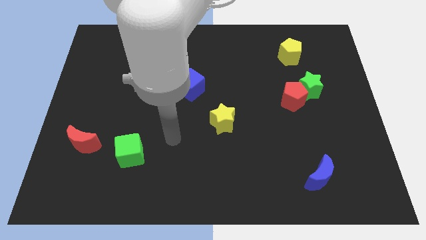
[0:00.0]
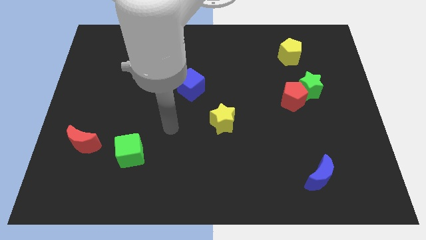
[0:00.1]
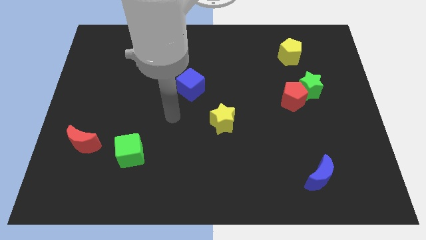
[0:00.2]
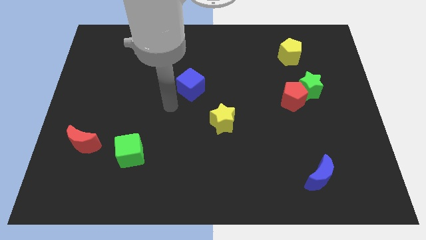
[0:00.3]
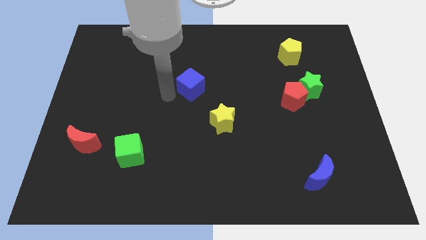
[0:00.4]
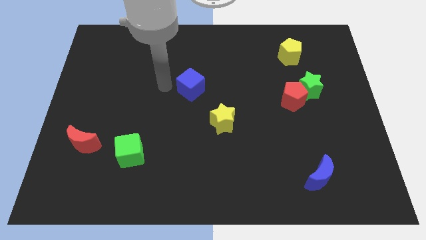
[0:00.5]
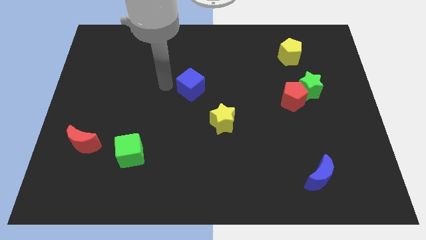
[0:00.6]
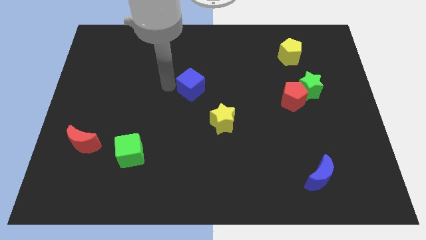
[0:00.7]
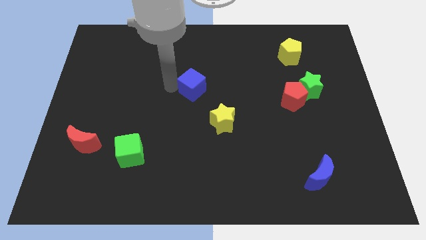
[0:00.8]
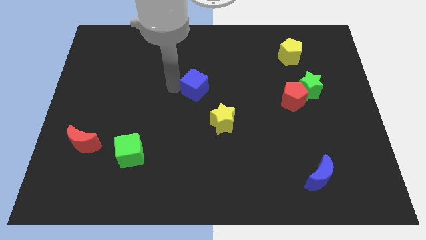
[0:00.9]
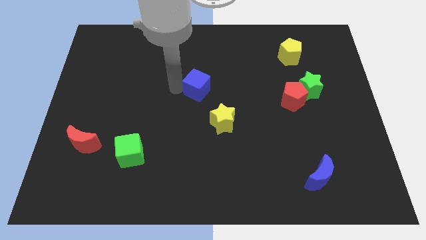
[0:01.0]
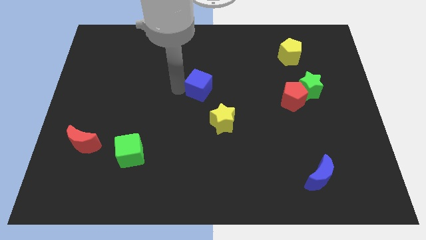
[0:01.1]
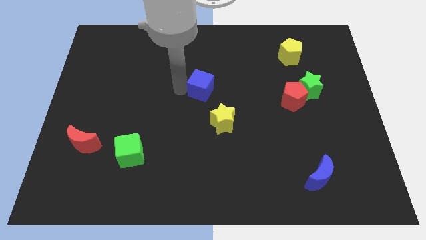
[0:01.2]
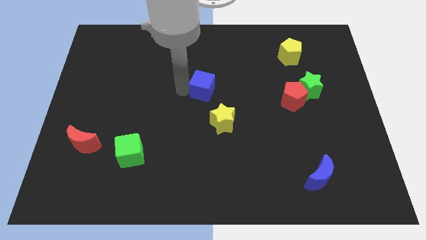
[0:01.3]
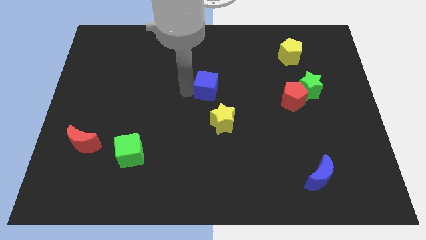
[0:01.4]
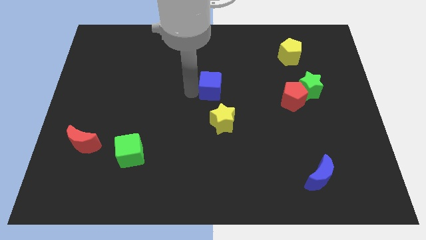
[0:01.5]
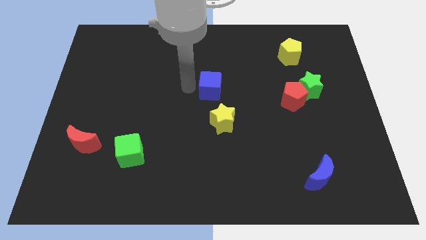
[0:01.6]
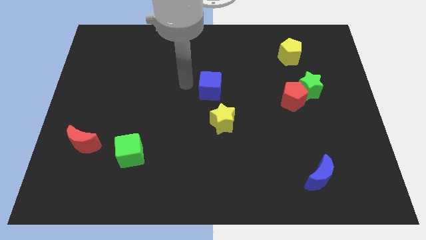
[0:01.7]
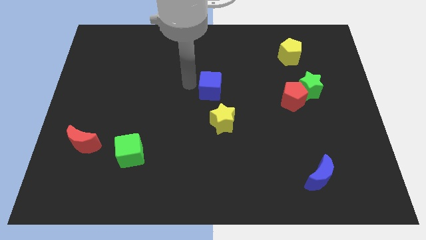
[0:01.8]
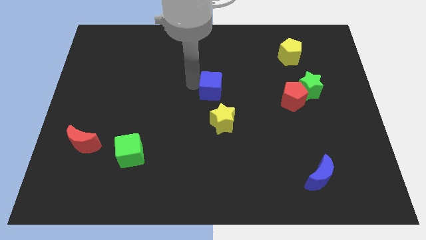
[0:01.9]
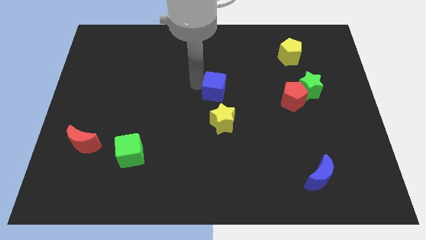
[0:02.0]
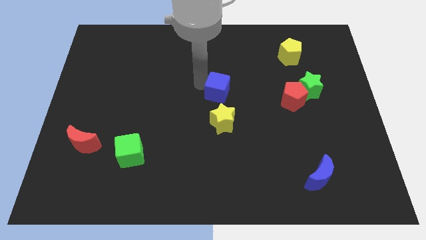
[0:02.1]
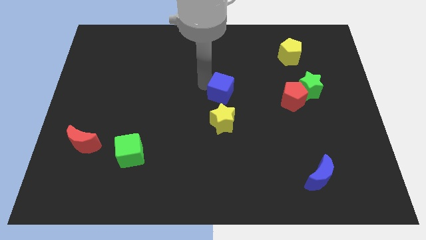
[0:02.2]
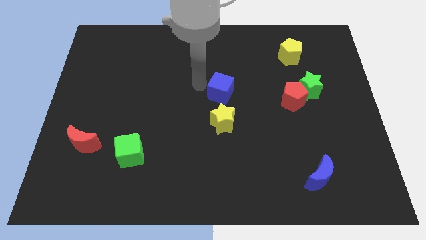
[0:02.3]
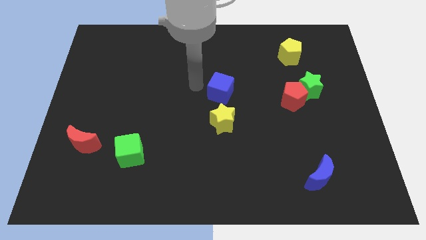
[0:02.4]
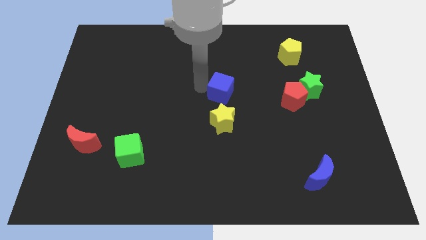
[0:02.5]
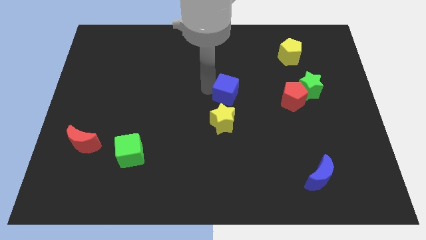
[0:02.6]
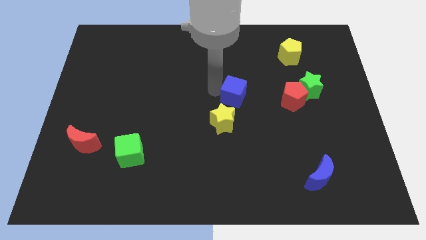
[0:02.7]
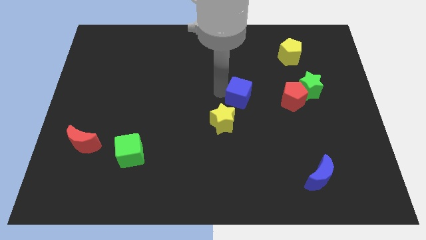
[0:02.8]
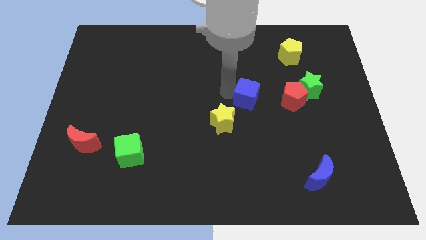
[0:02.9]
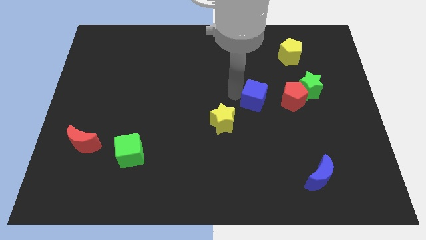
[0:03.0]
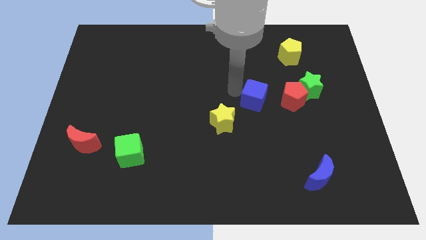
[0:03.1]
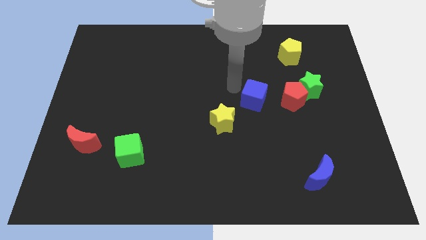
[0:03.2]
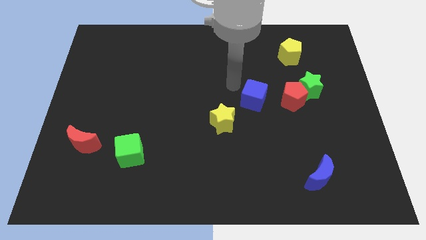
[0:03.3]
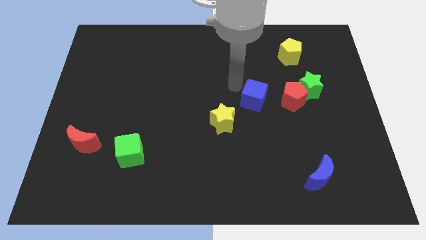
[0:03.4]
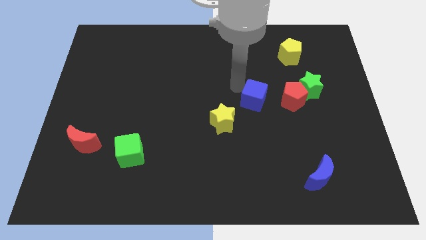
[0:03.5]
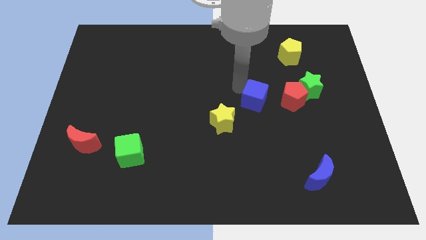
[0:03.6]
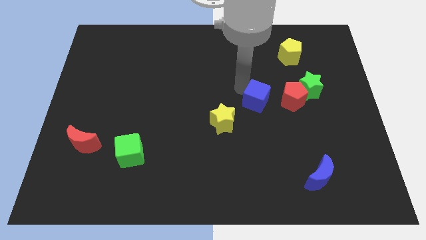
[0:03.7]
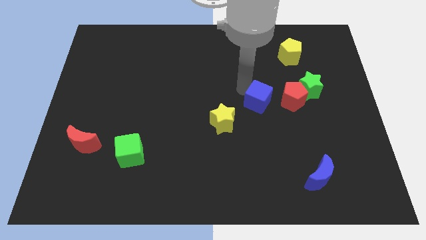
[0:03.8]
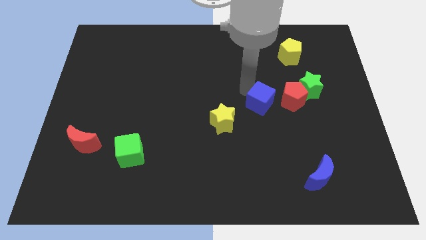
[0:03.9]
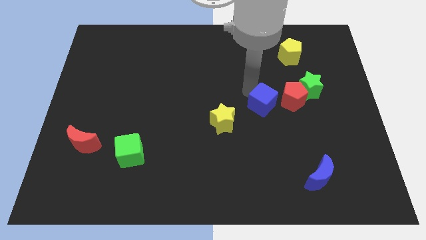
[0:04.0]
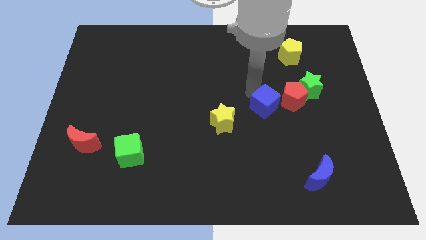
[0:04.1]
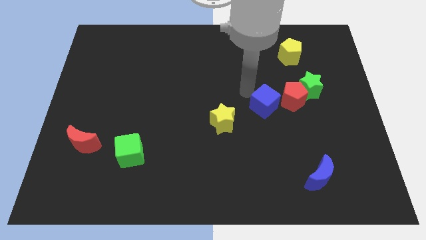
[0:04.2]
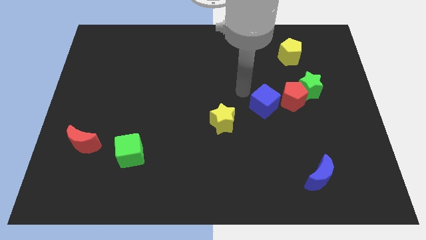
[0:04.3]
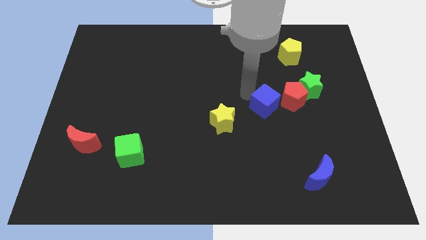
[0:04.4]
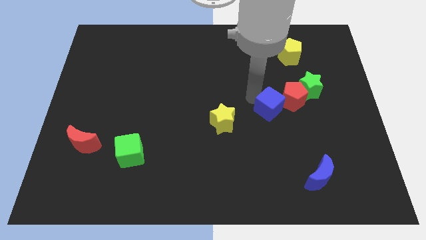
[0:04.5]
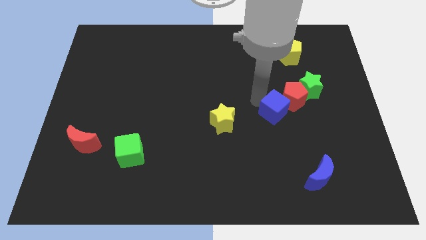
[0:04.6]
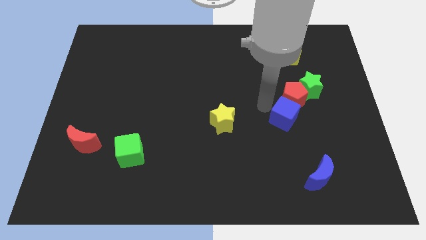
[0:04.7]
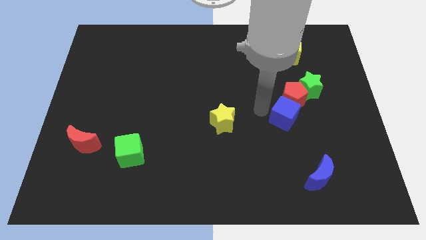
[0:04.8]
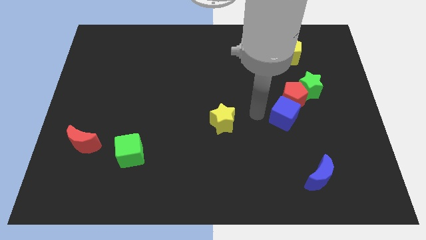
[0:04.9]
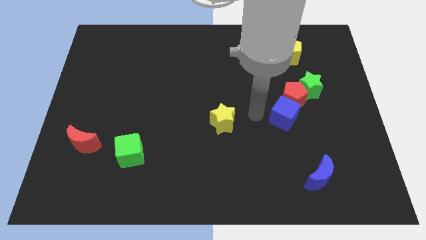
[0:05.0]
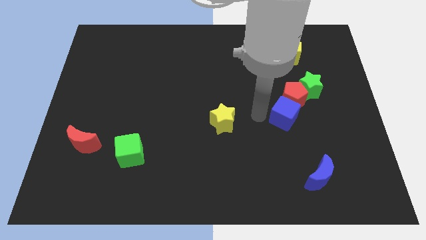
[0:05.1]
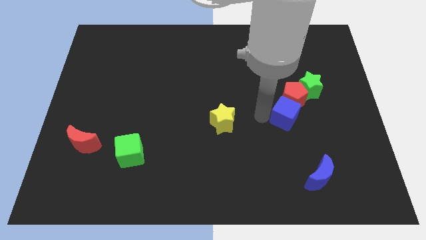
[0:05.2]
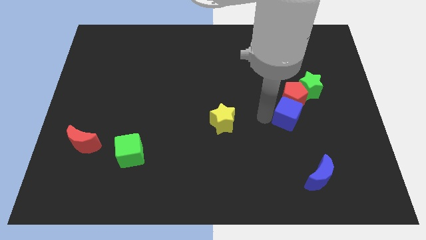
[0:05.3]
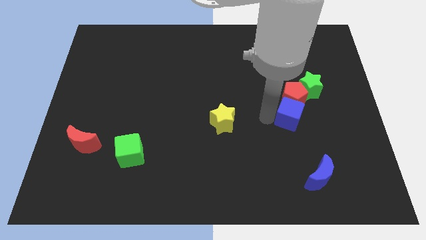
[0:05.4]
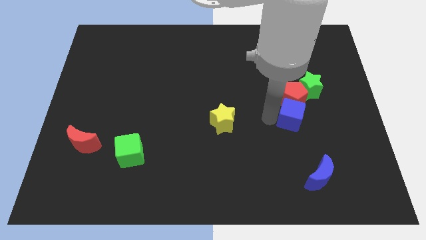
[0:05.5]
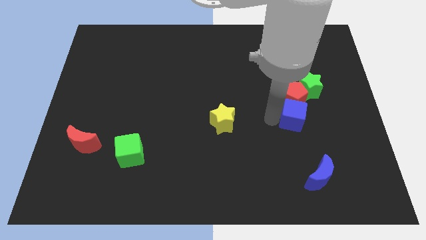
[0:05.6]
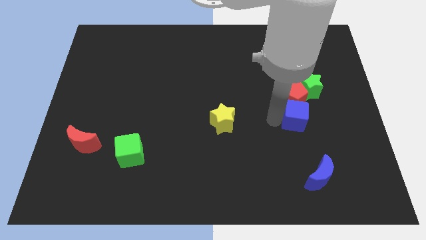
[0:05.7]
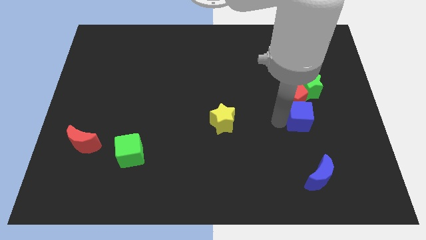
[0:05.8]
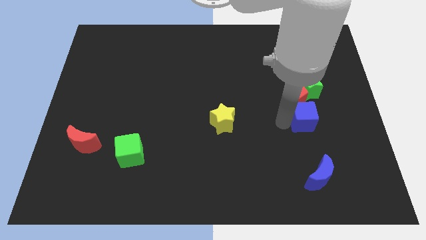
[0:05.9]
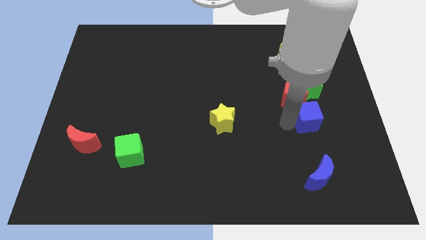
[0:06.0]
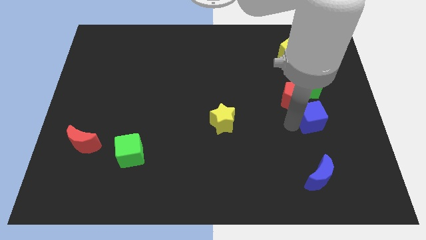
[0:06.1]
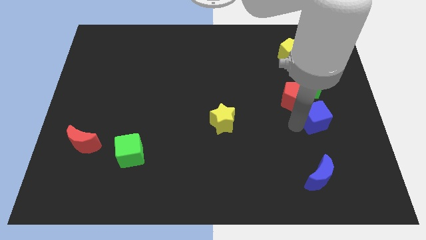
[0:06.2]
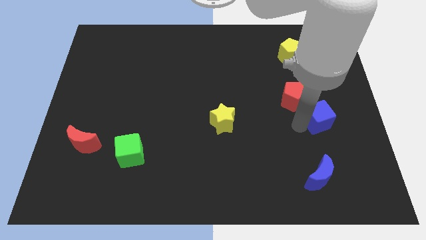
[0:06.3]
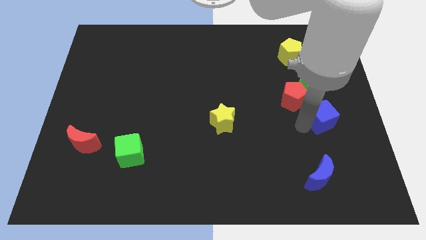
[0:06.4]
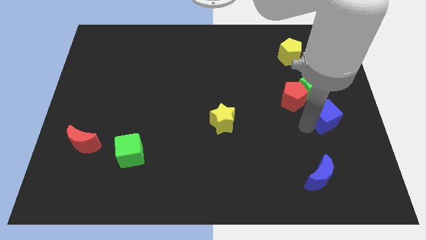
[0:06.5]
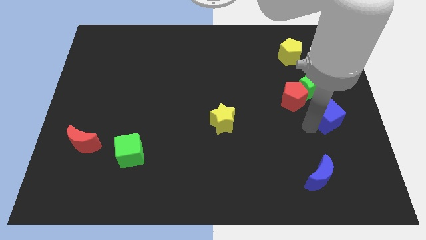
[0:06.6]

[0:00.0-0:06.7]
move the blue cube diagonally down and to the right of the green star
